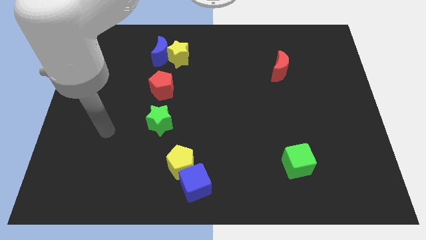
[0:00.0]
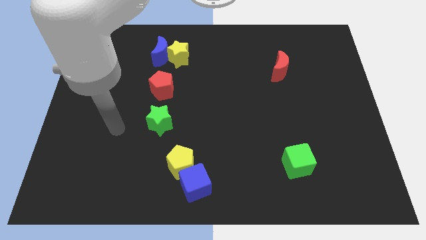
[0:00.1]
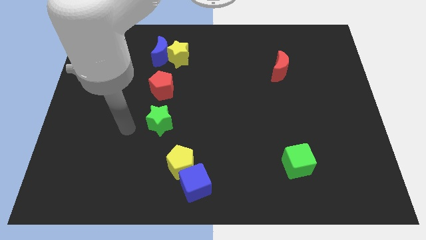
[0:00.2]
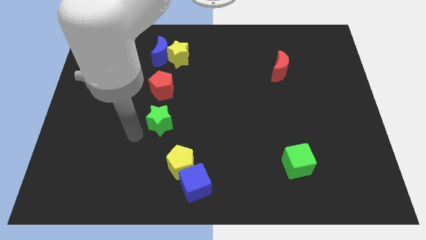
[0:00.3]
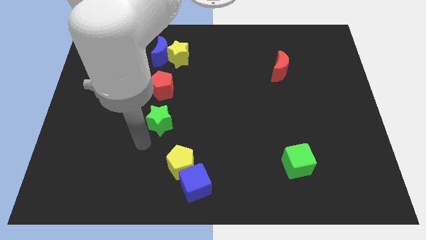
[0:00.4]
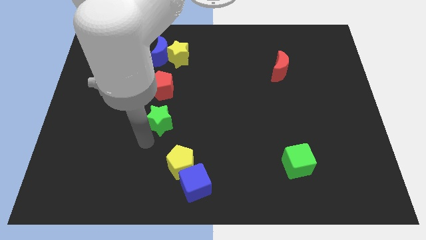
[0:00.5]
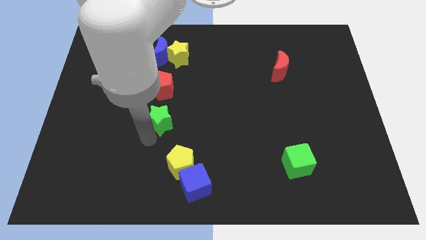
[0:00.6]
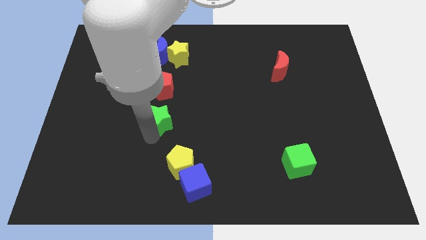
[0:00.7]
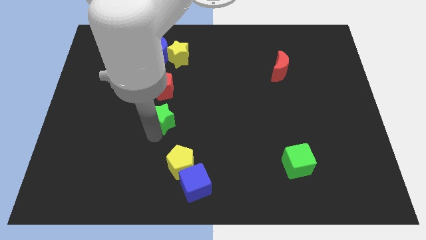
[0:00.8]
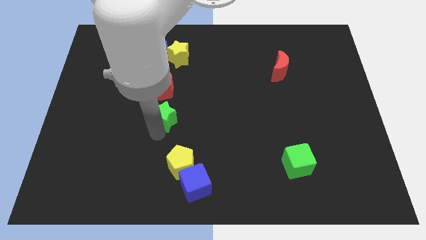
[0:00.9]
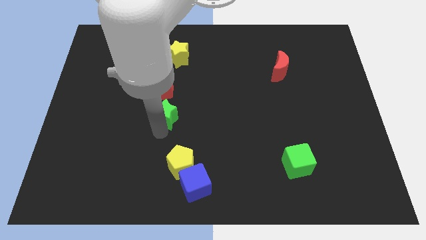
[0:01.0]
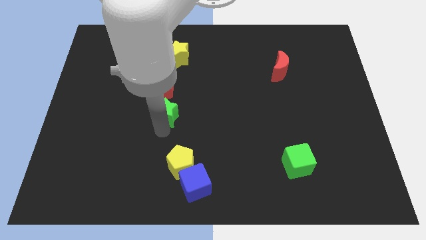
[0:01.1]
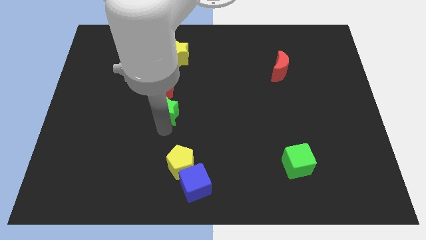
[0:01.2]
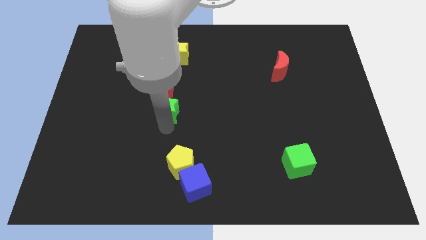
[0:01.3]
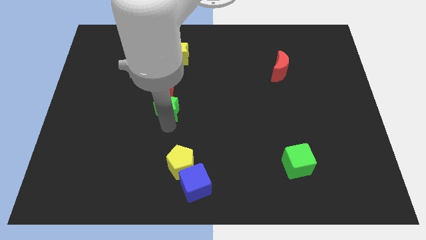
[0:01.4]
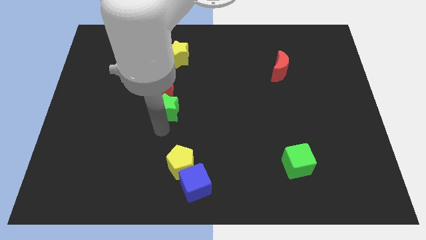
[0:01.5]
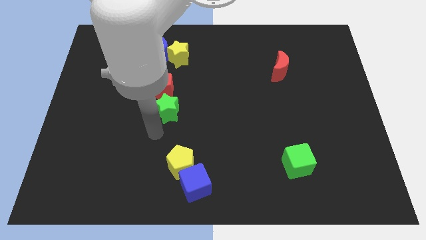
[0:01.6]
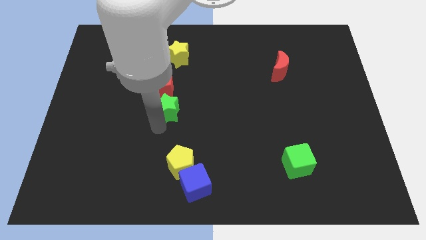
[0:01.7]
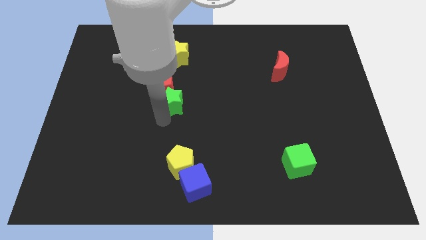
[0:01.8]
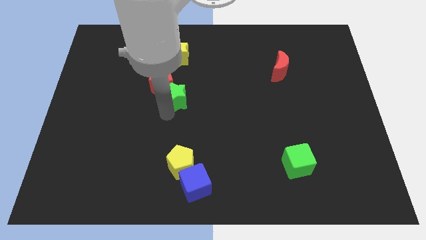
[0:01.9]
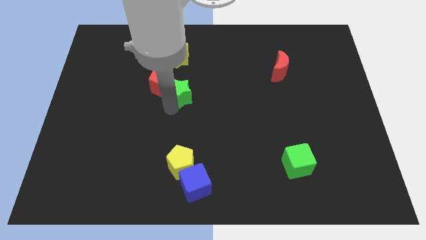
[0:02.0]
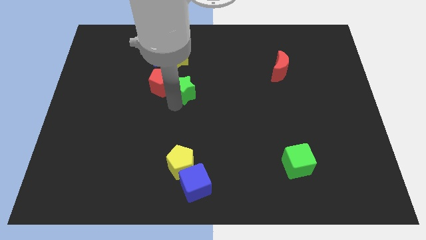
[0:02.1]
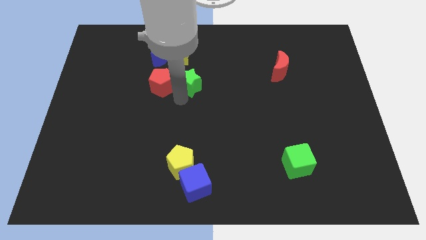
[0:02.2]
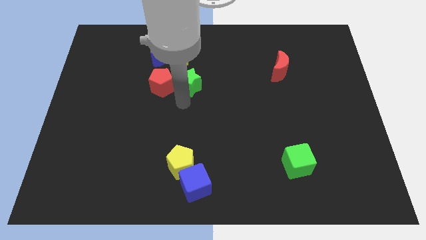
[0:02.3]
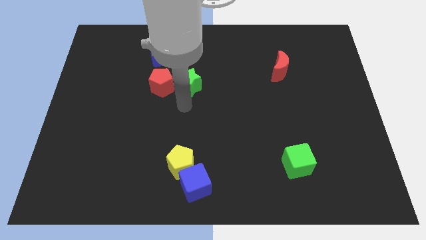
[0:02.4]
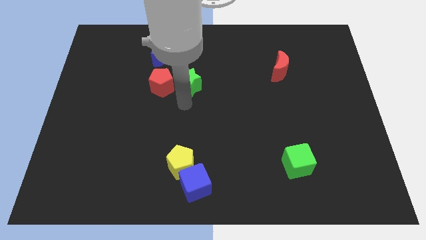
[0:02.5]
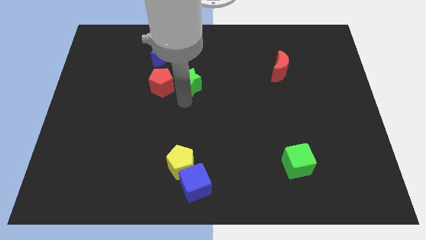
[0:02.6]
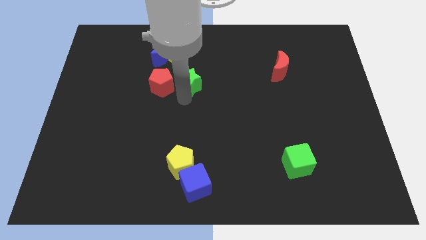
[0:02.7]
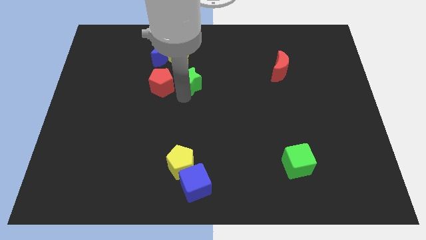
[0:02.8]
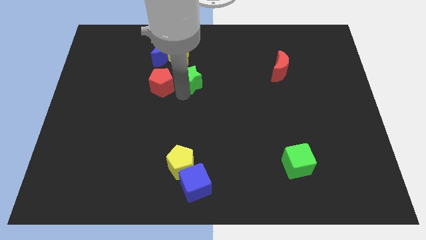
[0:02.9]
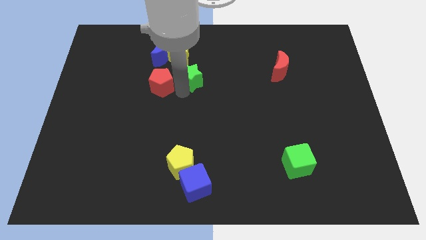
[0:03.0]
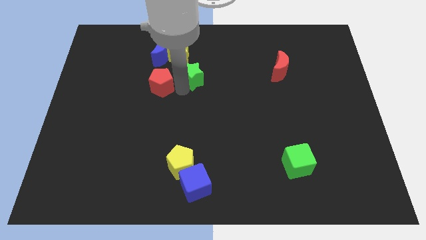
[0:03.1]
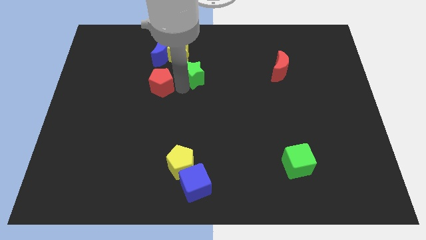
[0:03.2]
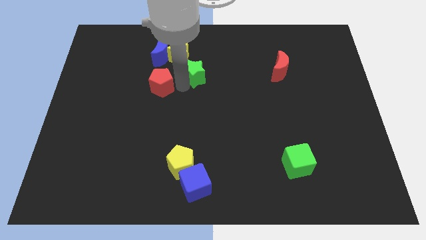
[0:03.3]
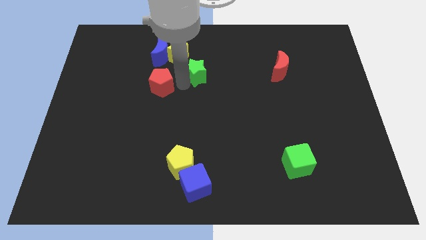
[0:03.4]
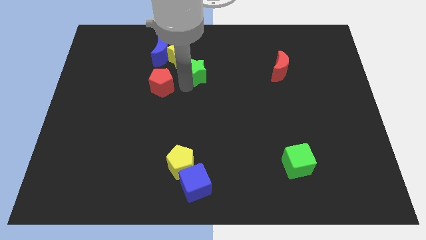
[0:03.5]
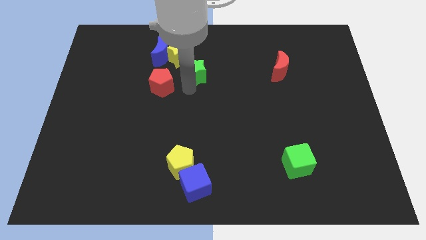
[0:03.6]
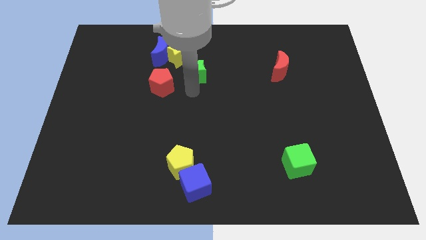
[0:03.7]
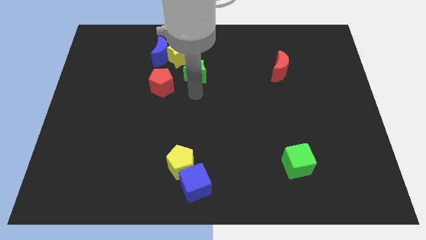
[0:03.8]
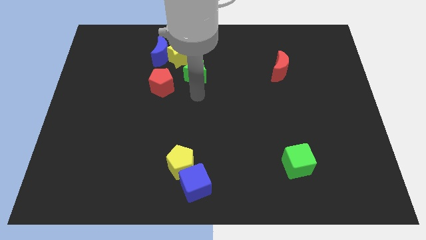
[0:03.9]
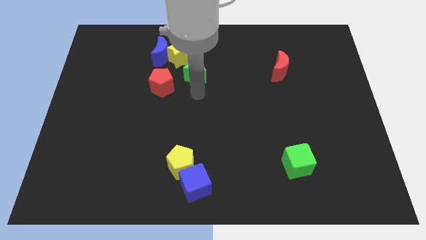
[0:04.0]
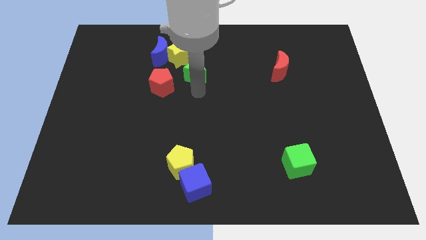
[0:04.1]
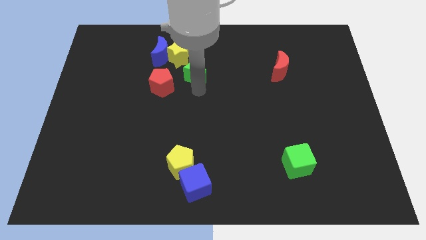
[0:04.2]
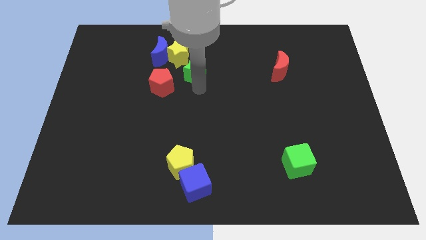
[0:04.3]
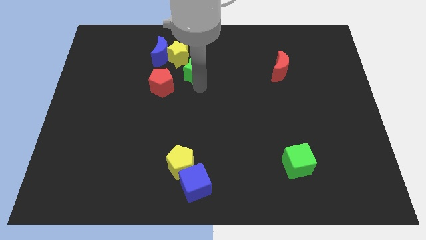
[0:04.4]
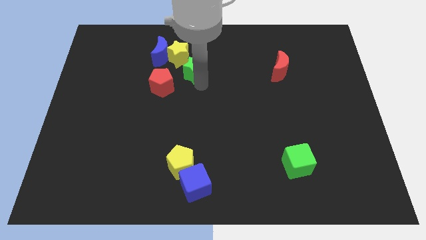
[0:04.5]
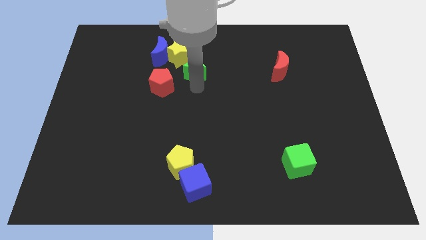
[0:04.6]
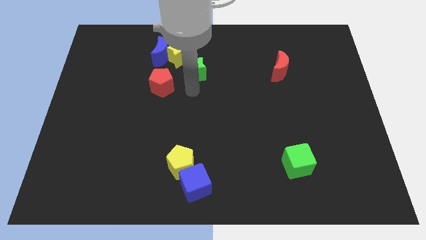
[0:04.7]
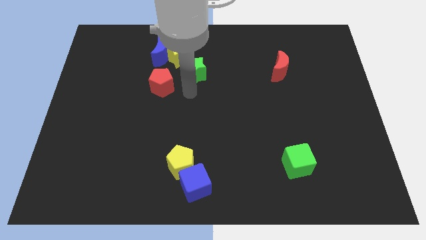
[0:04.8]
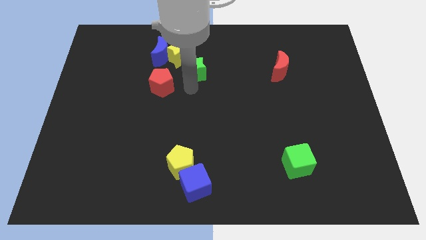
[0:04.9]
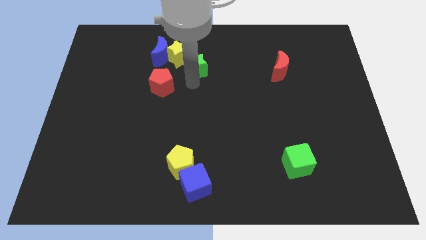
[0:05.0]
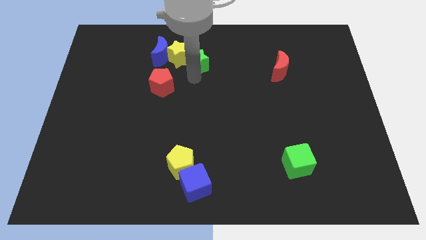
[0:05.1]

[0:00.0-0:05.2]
put the green star just right of the blue moon

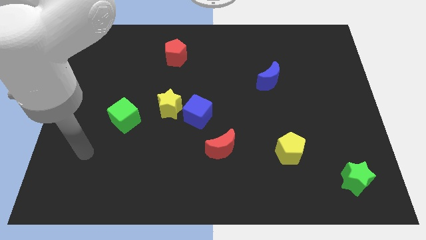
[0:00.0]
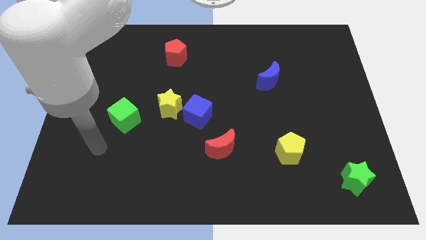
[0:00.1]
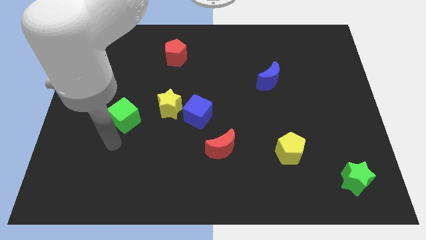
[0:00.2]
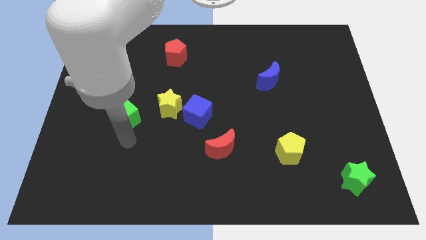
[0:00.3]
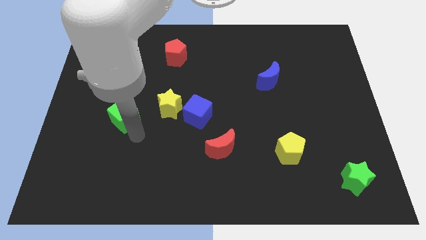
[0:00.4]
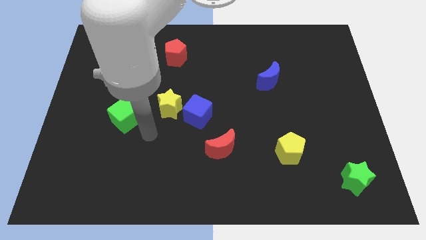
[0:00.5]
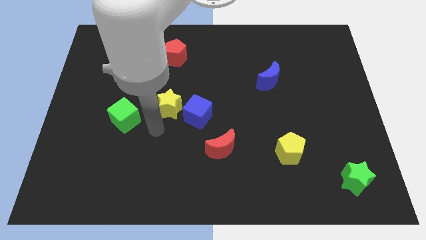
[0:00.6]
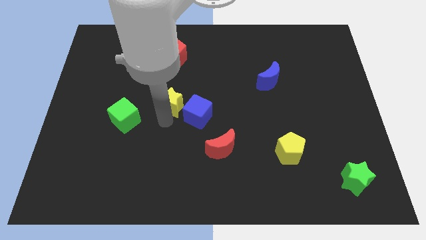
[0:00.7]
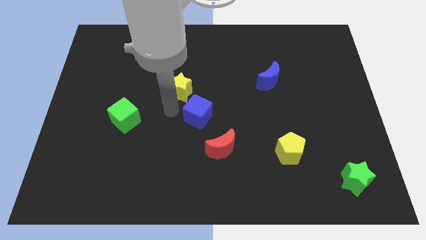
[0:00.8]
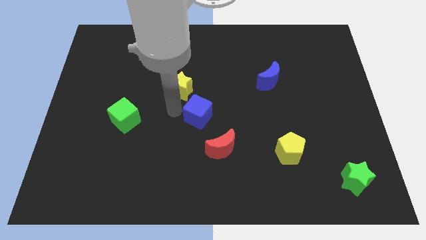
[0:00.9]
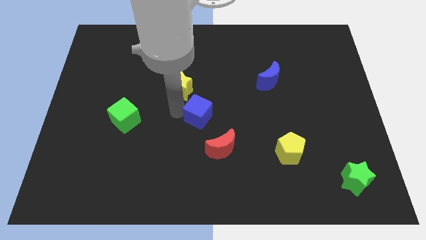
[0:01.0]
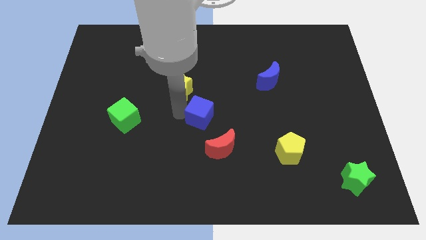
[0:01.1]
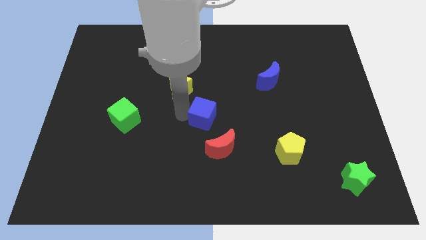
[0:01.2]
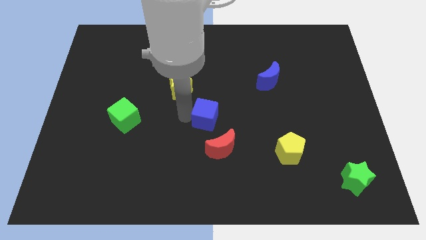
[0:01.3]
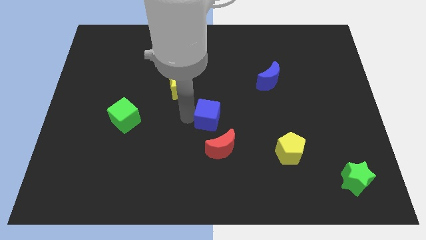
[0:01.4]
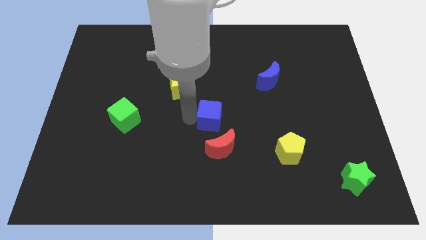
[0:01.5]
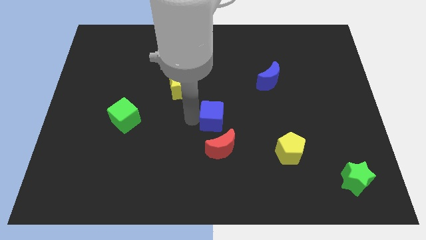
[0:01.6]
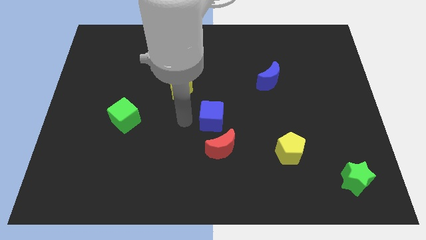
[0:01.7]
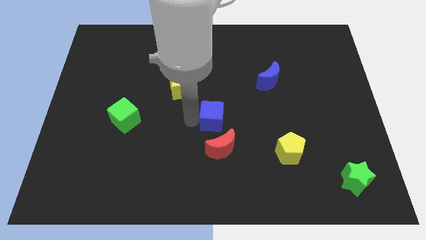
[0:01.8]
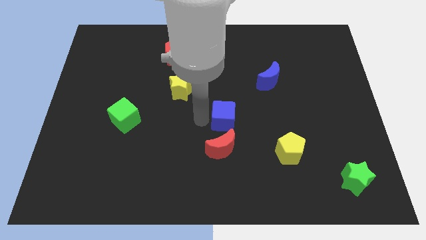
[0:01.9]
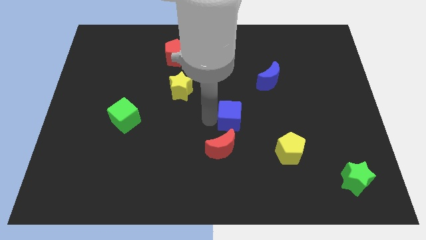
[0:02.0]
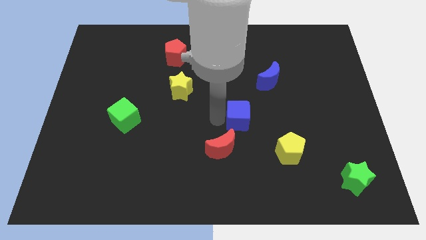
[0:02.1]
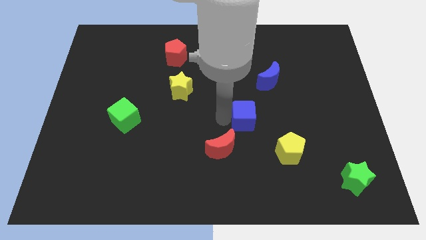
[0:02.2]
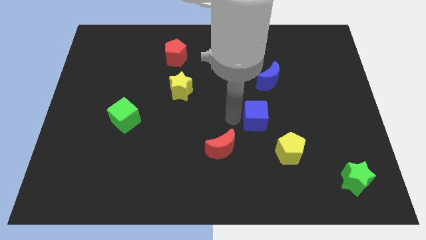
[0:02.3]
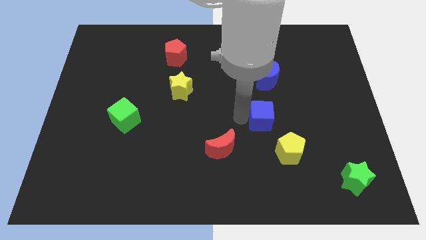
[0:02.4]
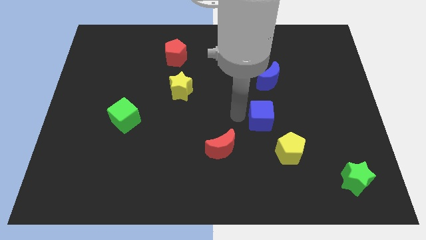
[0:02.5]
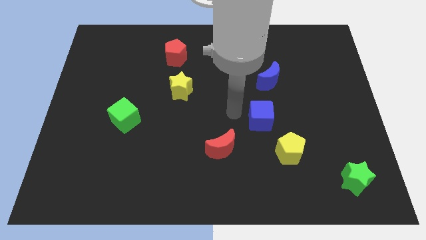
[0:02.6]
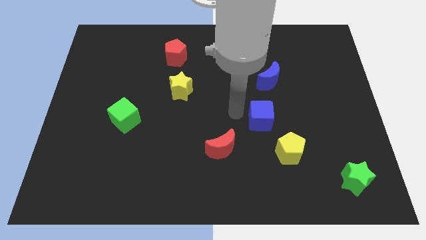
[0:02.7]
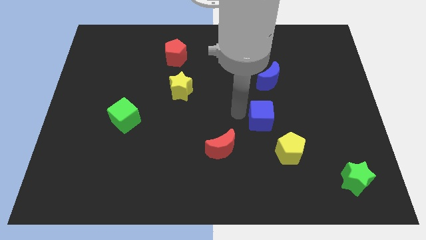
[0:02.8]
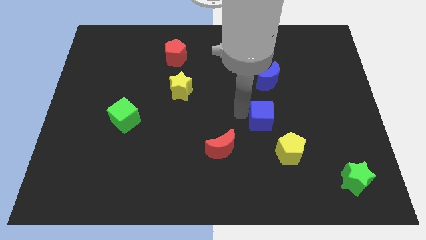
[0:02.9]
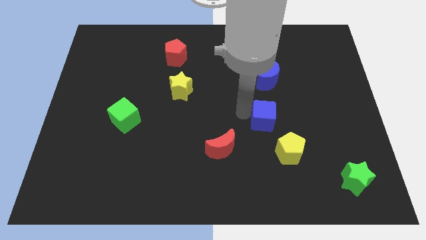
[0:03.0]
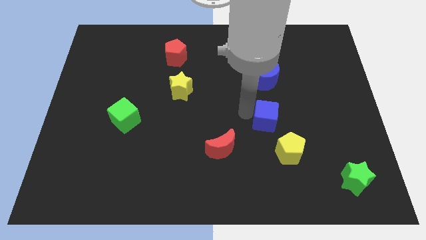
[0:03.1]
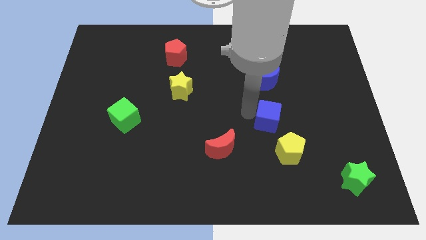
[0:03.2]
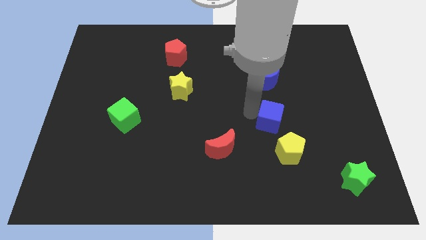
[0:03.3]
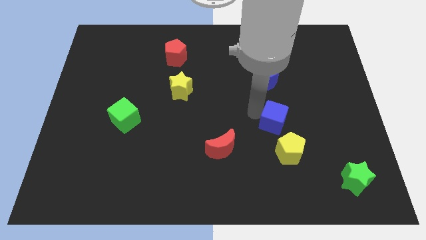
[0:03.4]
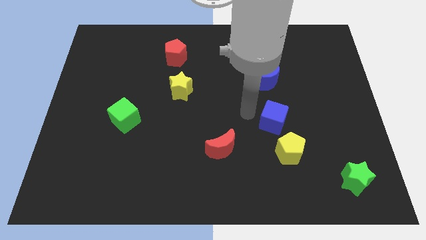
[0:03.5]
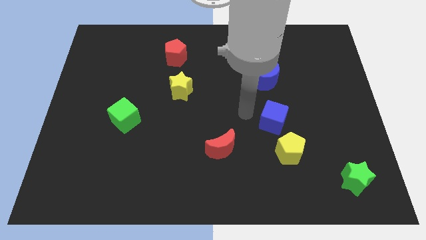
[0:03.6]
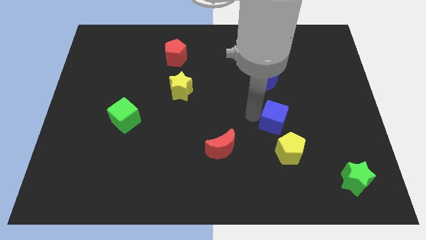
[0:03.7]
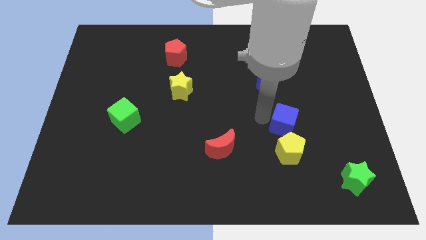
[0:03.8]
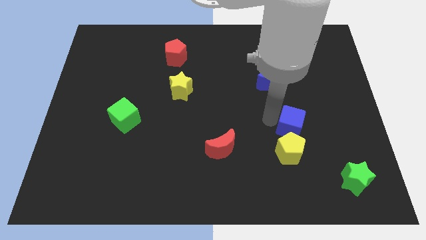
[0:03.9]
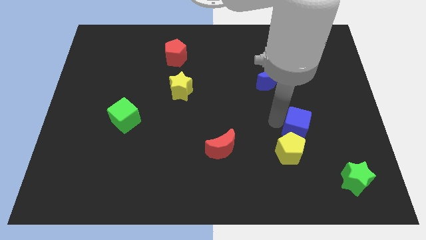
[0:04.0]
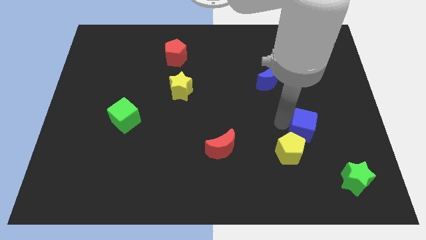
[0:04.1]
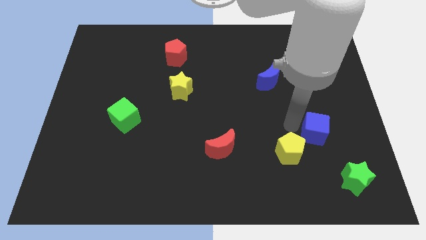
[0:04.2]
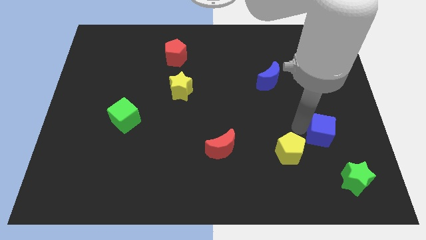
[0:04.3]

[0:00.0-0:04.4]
put the blue cube above the green star
